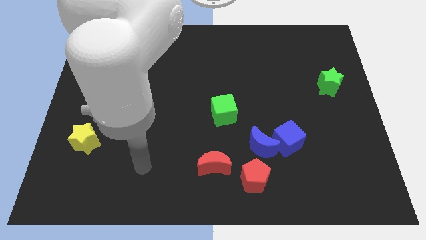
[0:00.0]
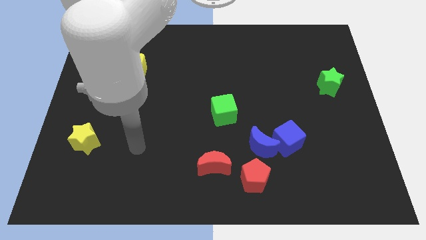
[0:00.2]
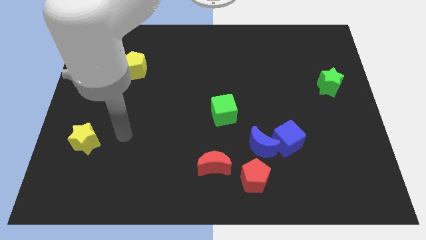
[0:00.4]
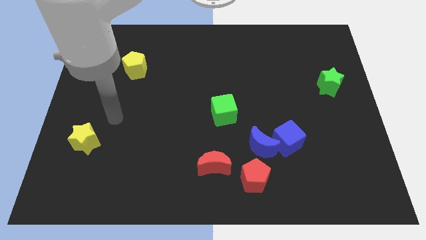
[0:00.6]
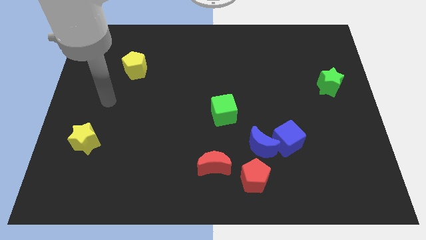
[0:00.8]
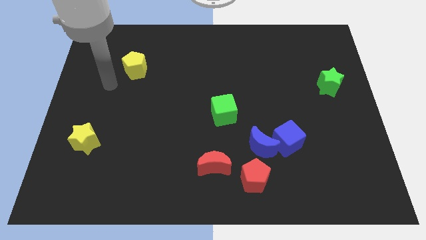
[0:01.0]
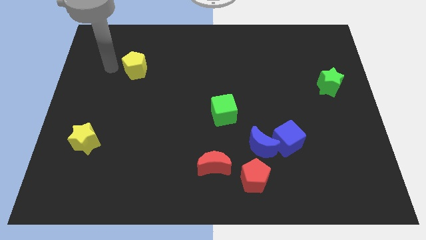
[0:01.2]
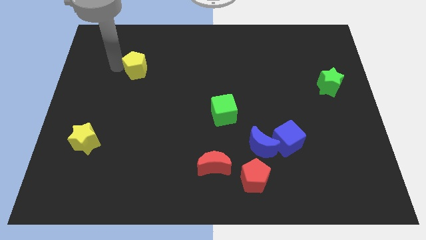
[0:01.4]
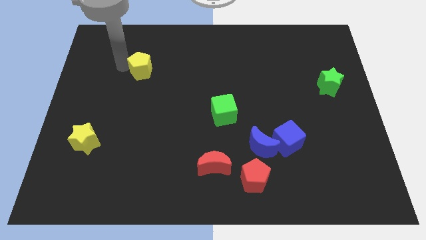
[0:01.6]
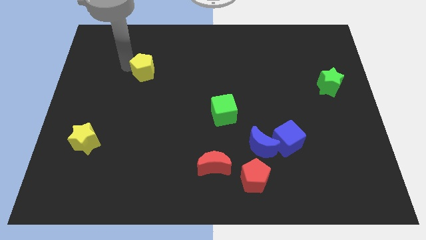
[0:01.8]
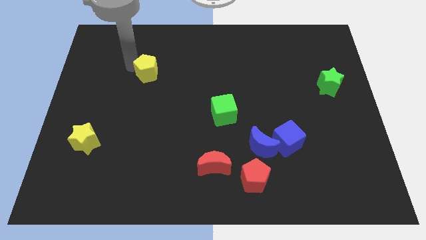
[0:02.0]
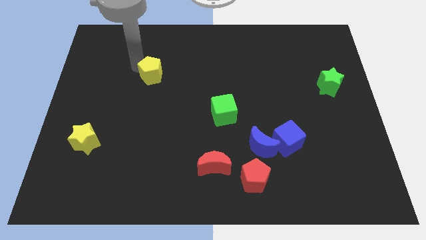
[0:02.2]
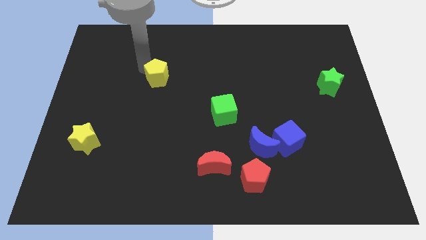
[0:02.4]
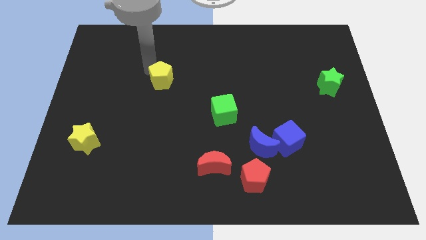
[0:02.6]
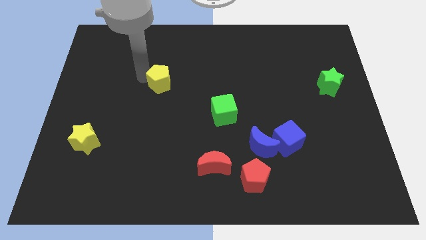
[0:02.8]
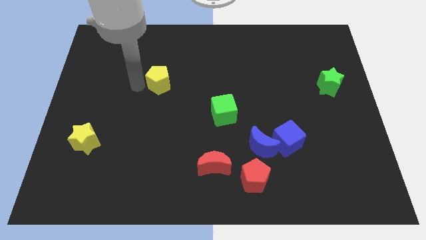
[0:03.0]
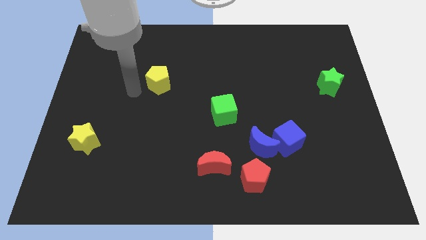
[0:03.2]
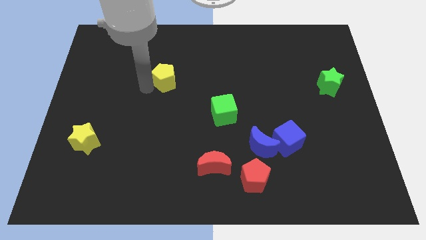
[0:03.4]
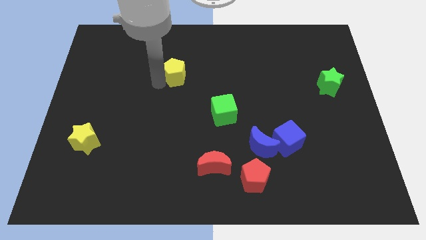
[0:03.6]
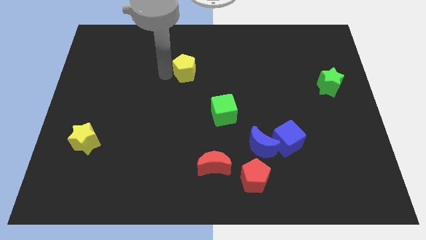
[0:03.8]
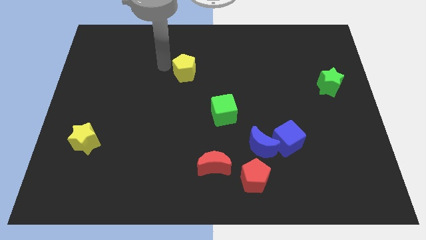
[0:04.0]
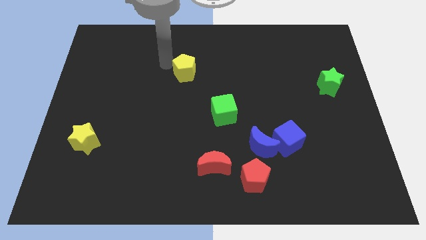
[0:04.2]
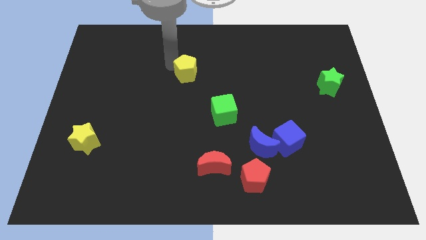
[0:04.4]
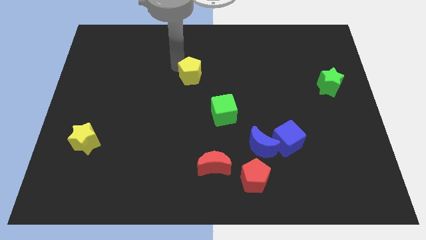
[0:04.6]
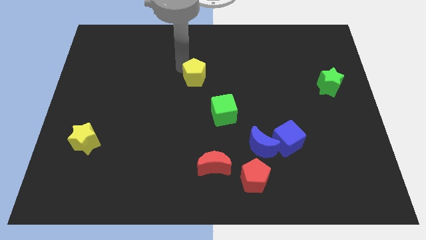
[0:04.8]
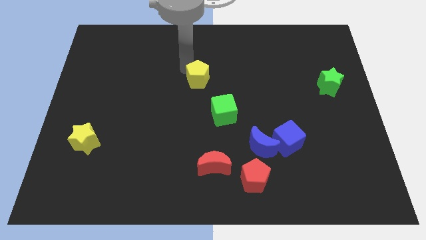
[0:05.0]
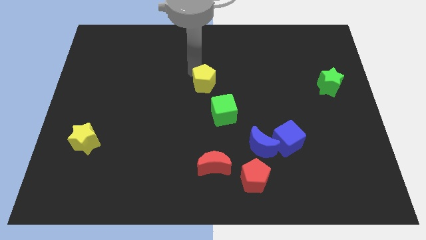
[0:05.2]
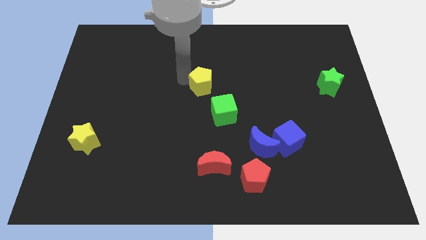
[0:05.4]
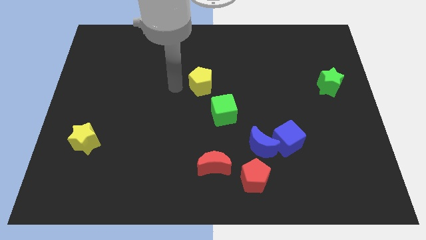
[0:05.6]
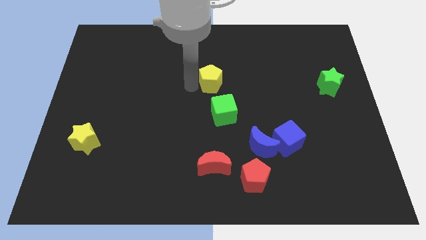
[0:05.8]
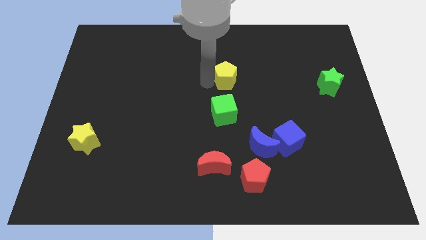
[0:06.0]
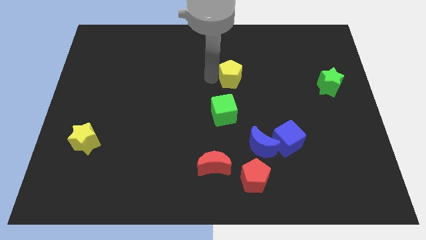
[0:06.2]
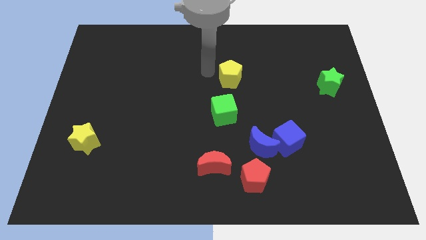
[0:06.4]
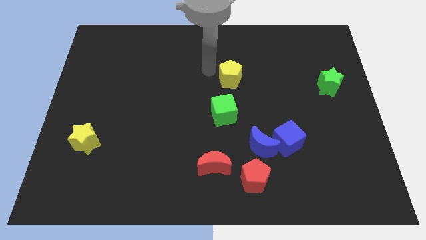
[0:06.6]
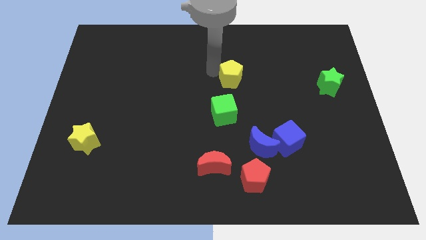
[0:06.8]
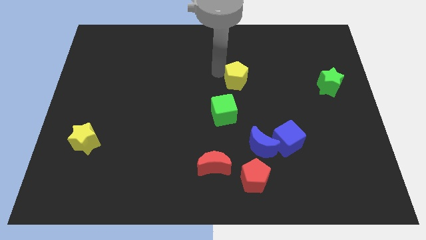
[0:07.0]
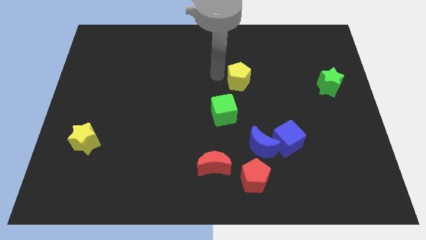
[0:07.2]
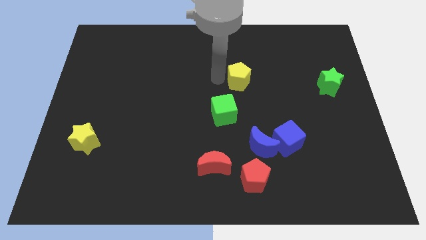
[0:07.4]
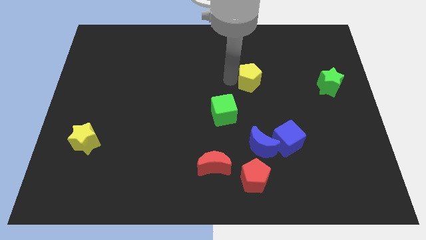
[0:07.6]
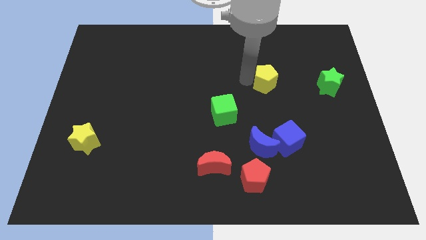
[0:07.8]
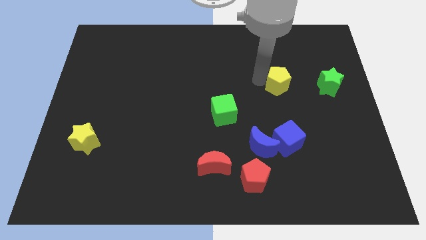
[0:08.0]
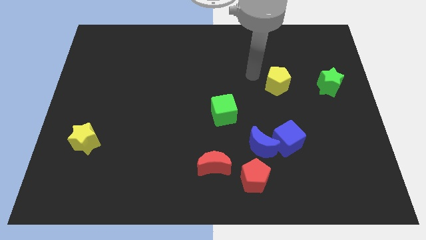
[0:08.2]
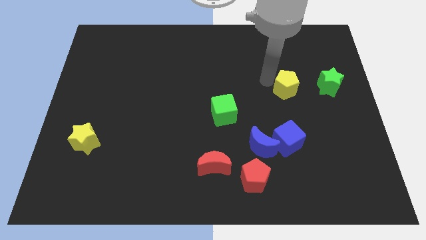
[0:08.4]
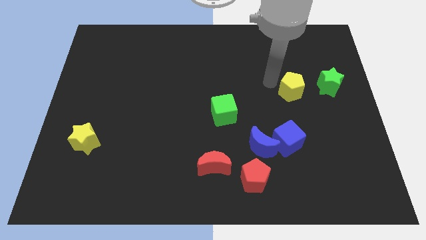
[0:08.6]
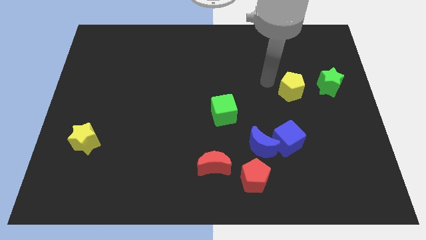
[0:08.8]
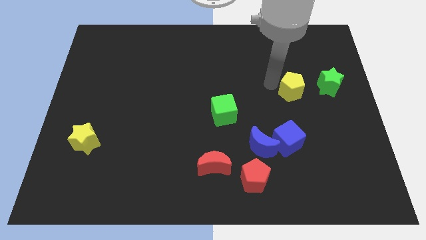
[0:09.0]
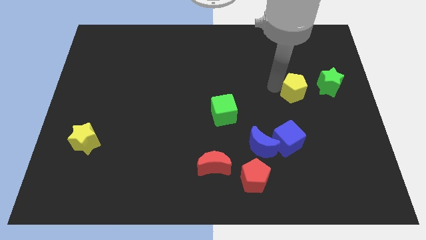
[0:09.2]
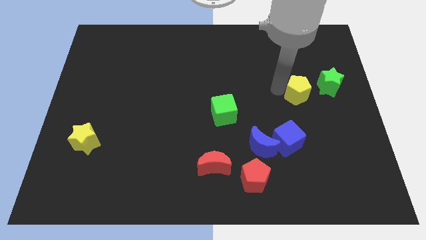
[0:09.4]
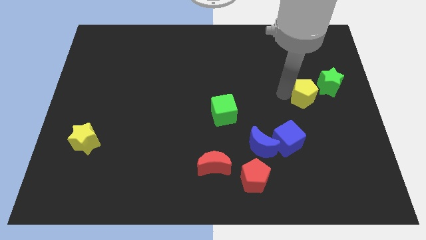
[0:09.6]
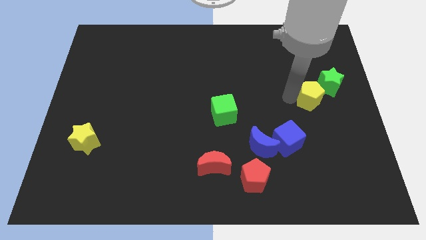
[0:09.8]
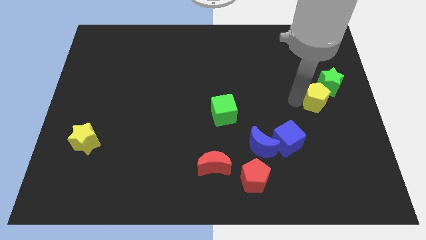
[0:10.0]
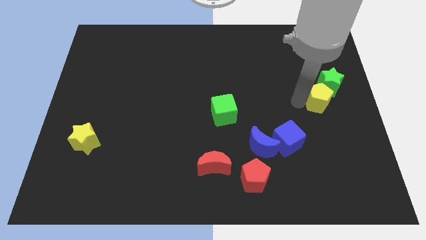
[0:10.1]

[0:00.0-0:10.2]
slide the yellow pentagon to the right side

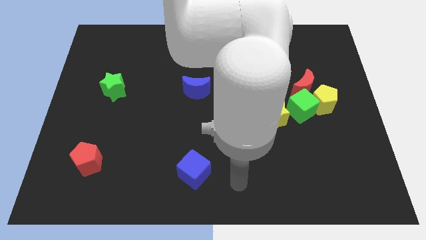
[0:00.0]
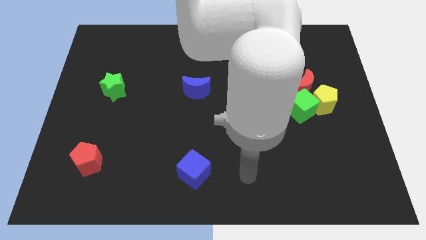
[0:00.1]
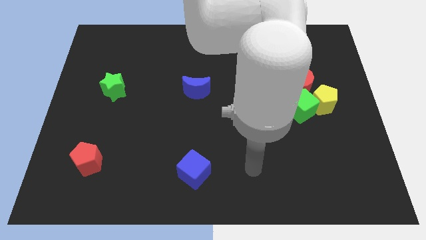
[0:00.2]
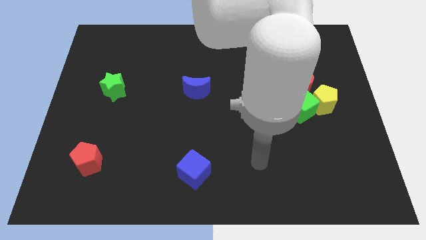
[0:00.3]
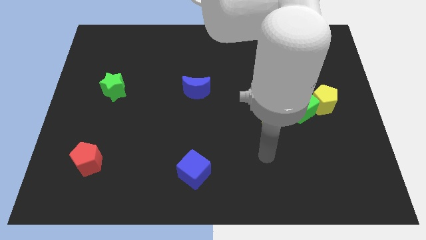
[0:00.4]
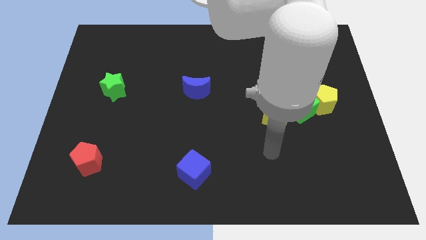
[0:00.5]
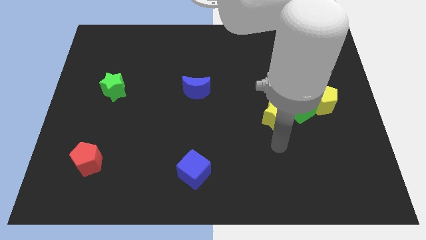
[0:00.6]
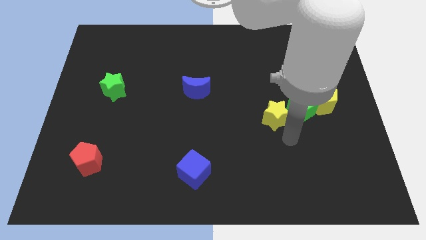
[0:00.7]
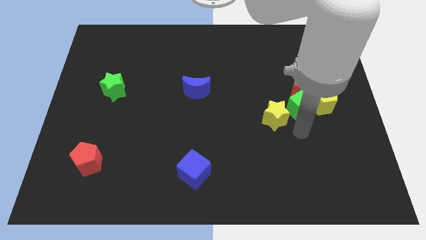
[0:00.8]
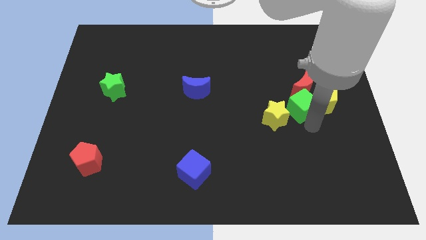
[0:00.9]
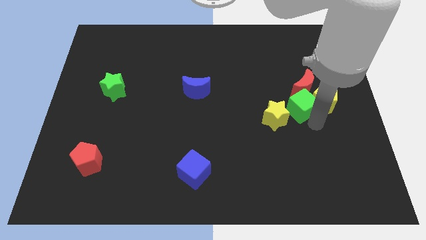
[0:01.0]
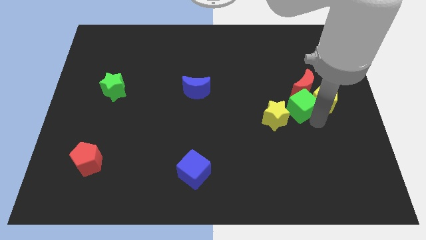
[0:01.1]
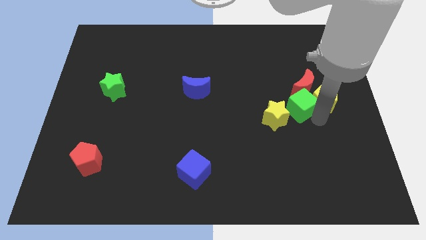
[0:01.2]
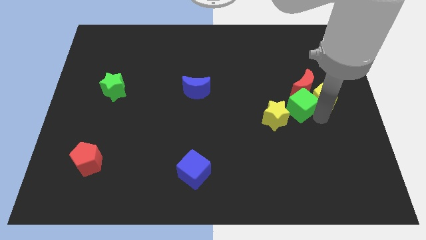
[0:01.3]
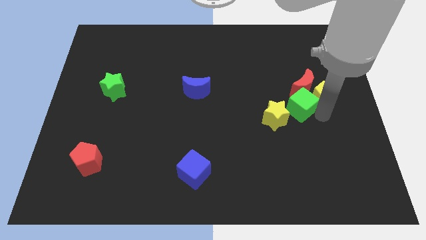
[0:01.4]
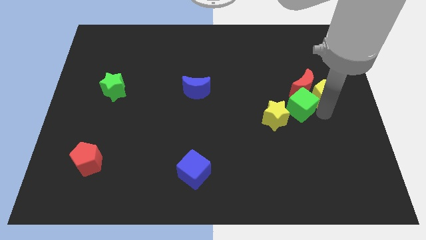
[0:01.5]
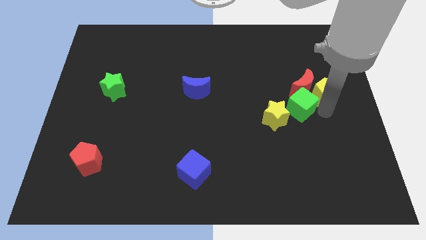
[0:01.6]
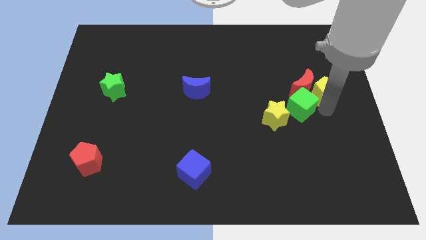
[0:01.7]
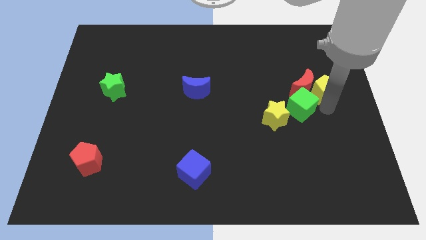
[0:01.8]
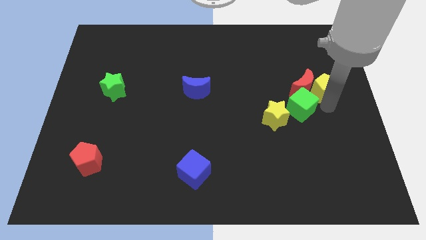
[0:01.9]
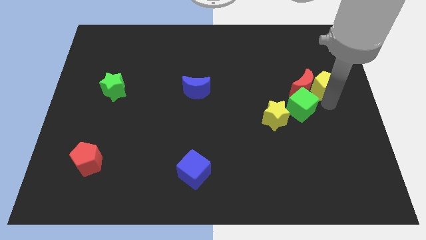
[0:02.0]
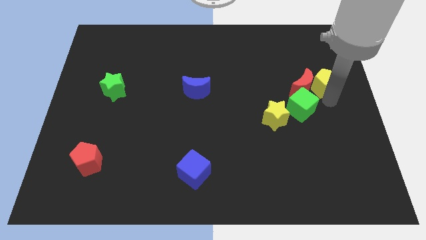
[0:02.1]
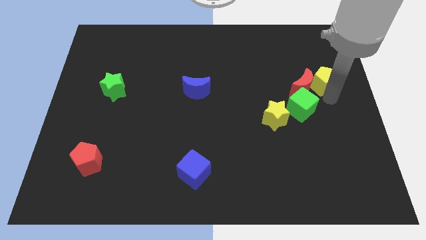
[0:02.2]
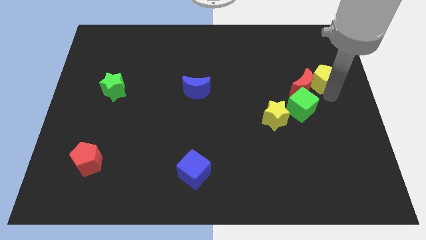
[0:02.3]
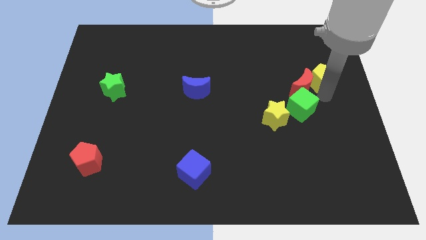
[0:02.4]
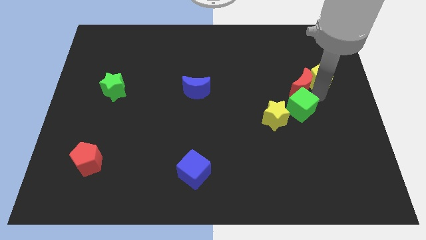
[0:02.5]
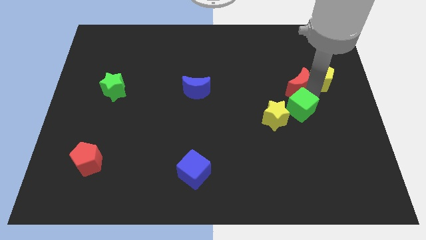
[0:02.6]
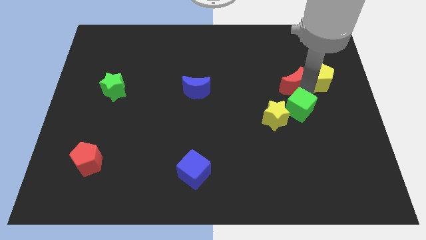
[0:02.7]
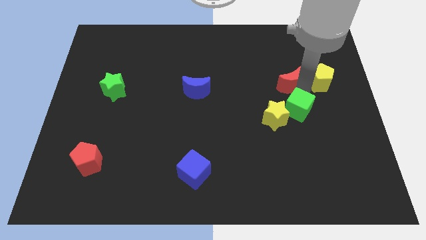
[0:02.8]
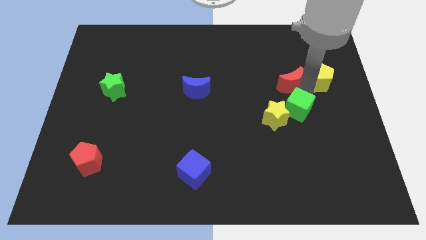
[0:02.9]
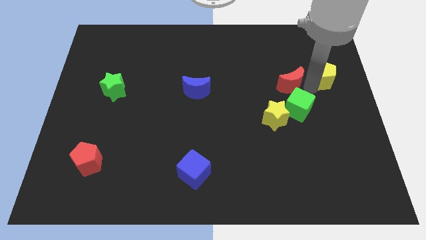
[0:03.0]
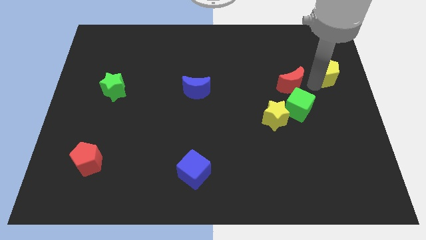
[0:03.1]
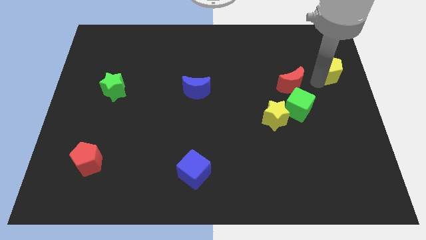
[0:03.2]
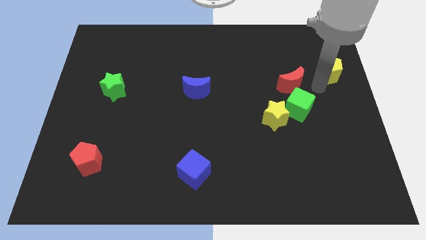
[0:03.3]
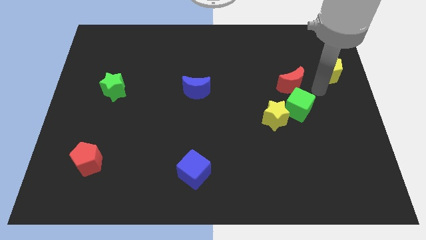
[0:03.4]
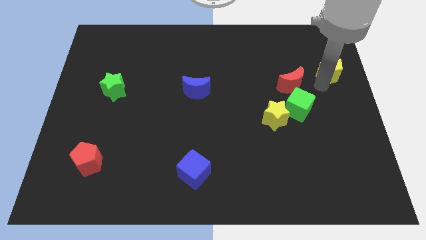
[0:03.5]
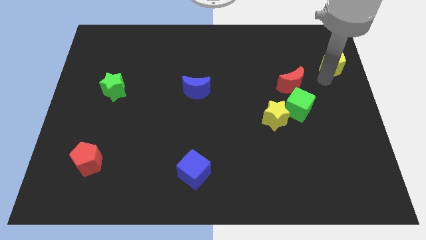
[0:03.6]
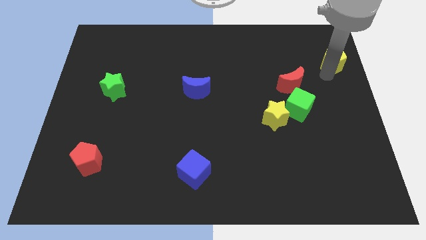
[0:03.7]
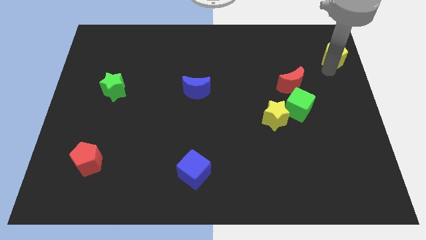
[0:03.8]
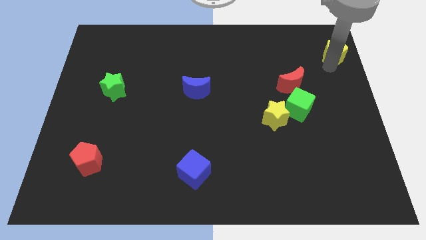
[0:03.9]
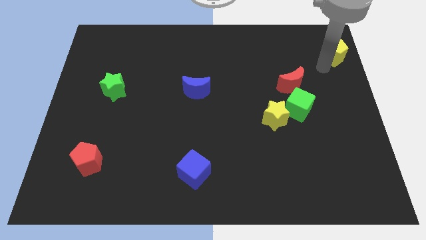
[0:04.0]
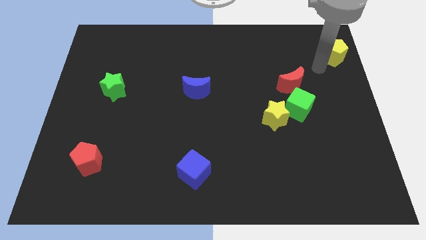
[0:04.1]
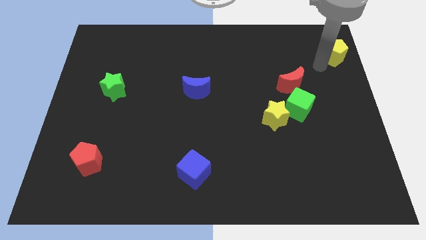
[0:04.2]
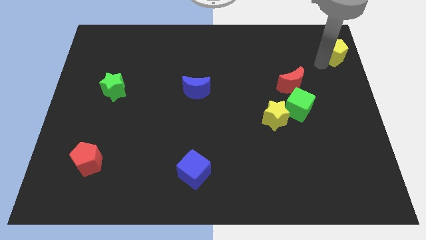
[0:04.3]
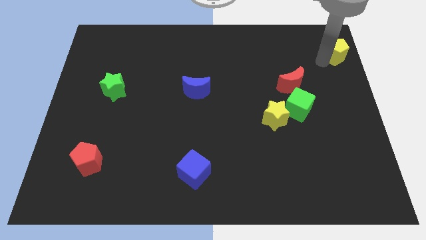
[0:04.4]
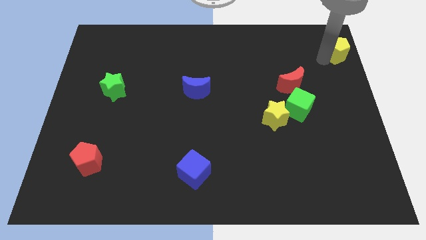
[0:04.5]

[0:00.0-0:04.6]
move the yellow pentagon to the upper right corner
